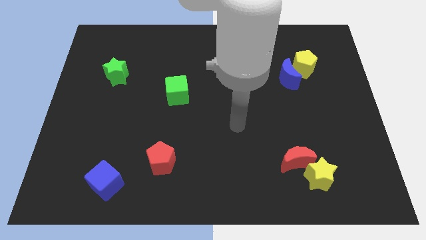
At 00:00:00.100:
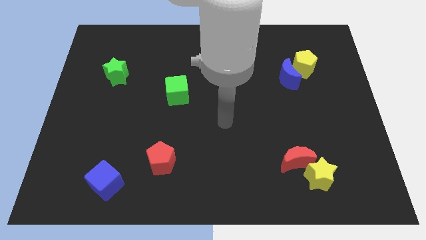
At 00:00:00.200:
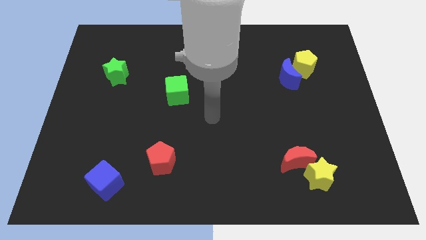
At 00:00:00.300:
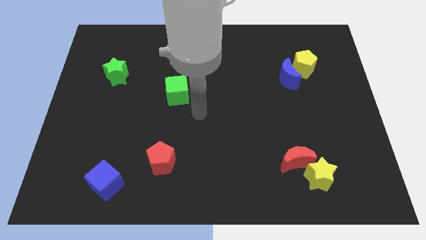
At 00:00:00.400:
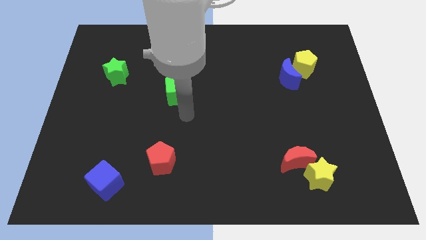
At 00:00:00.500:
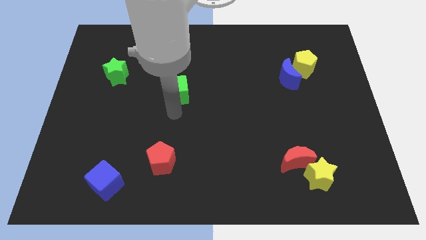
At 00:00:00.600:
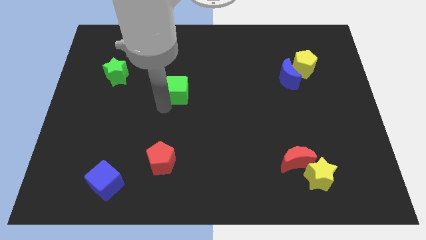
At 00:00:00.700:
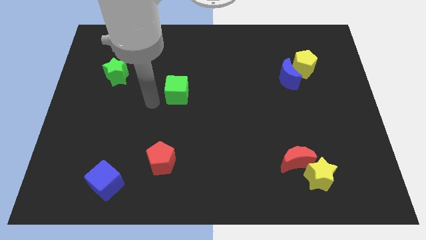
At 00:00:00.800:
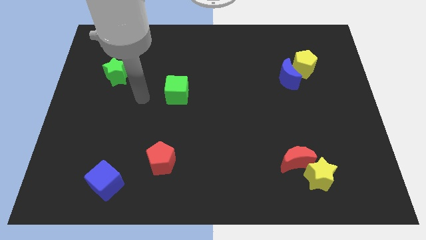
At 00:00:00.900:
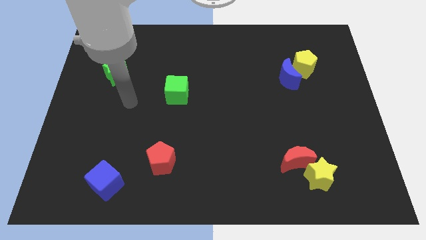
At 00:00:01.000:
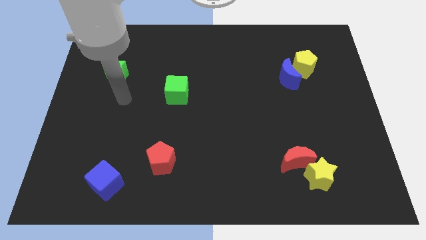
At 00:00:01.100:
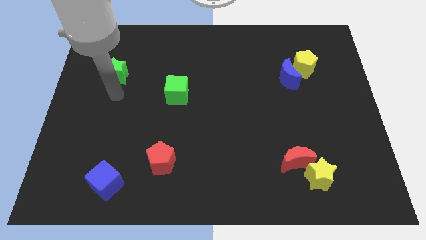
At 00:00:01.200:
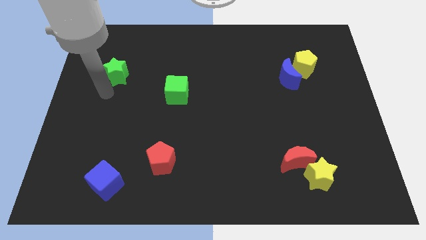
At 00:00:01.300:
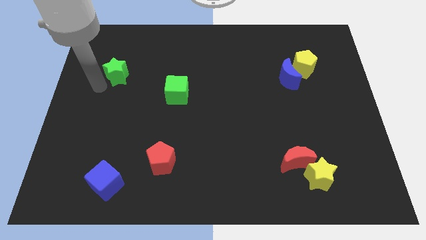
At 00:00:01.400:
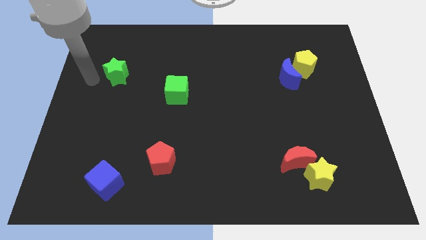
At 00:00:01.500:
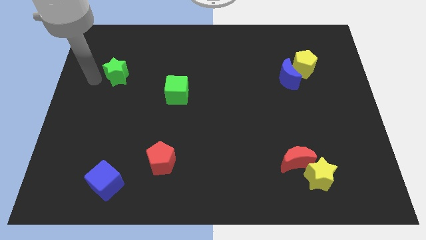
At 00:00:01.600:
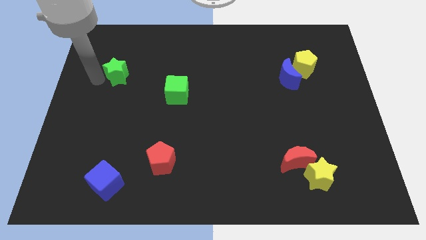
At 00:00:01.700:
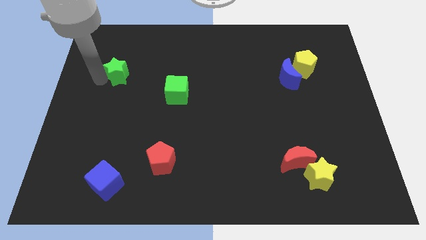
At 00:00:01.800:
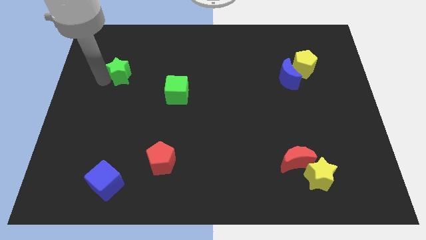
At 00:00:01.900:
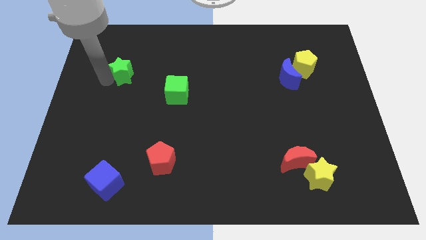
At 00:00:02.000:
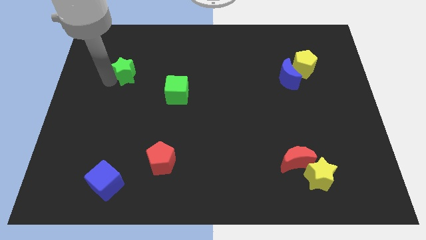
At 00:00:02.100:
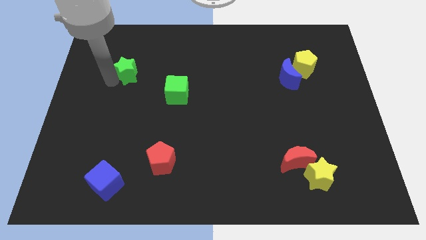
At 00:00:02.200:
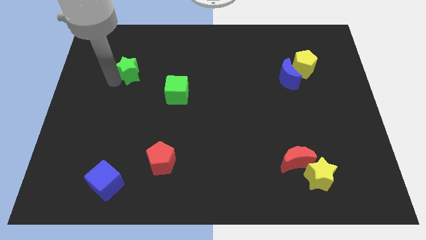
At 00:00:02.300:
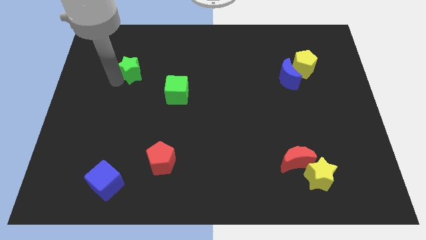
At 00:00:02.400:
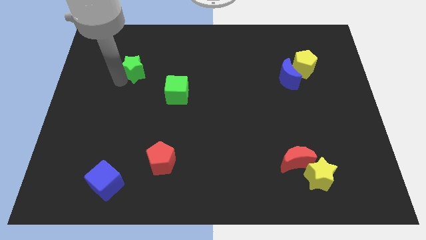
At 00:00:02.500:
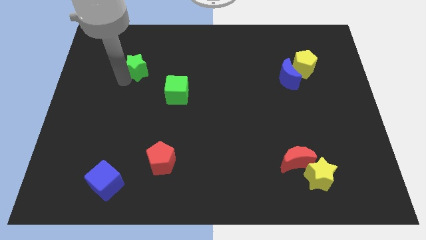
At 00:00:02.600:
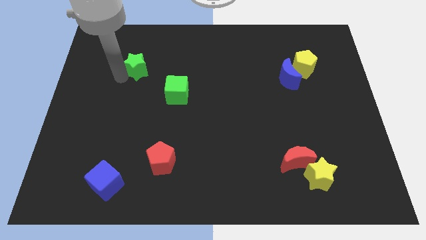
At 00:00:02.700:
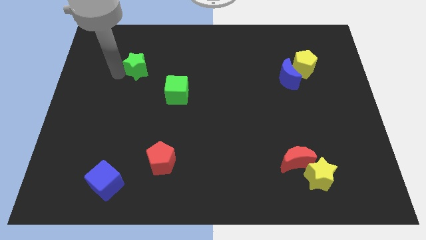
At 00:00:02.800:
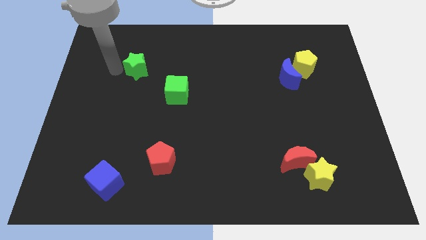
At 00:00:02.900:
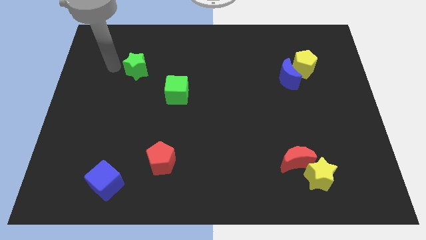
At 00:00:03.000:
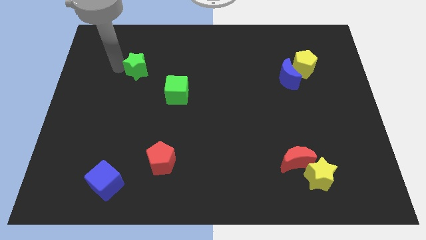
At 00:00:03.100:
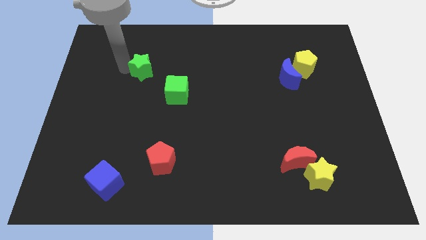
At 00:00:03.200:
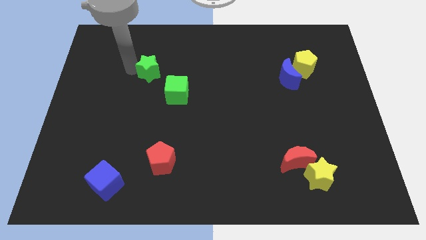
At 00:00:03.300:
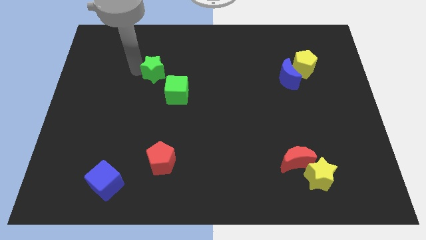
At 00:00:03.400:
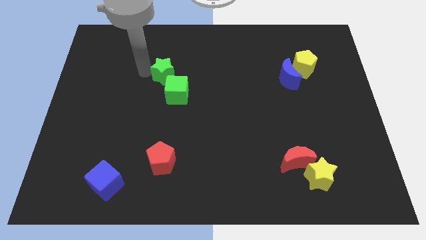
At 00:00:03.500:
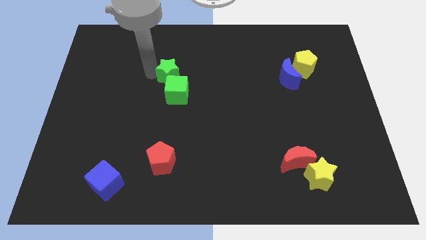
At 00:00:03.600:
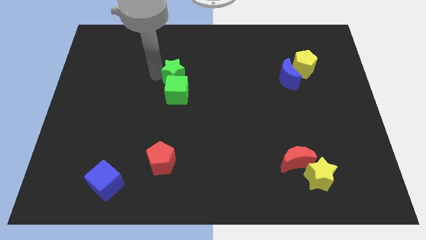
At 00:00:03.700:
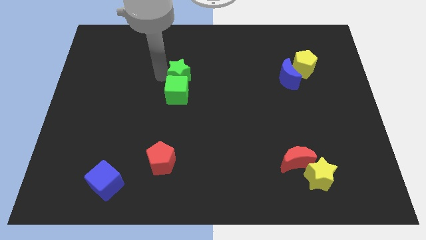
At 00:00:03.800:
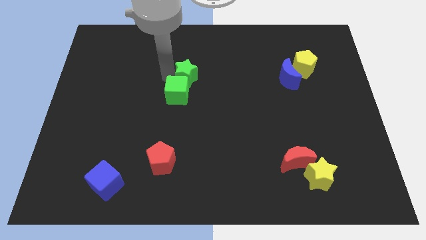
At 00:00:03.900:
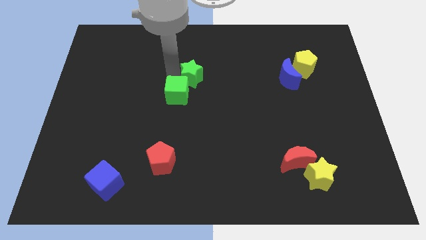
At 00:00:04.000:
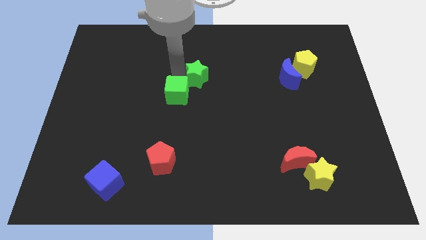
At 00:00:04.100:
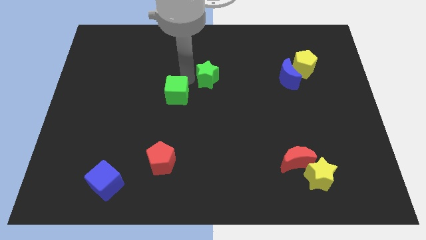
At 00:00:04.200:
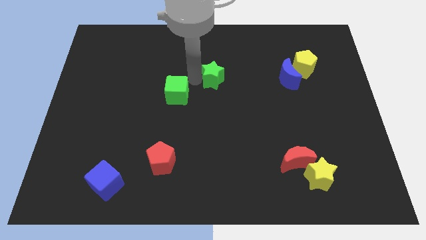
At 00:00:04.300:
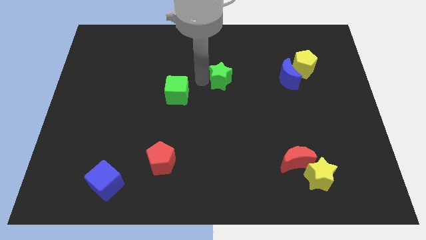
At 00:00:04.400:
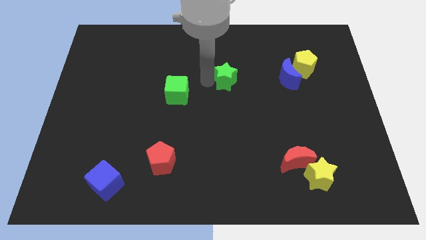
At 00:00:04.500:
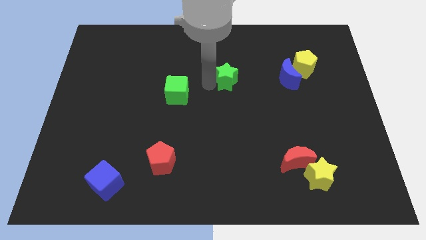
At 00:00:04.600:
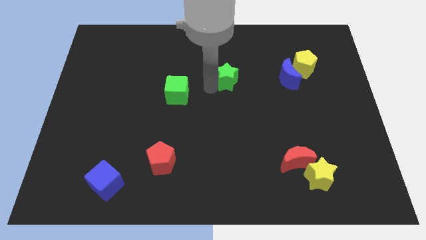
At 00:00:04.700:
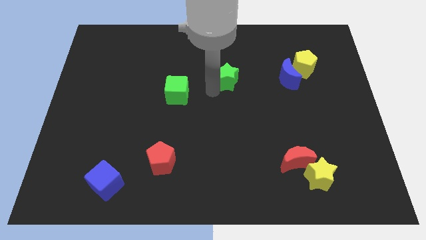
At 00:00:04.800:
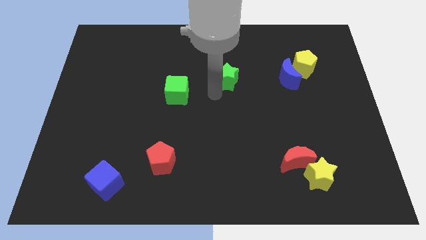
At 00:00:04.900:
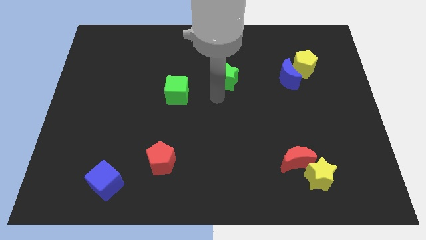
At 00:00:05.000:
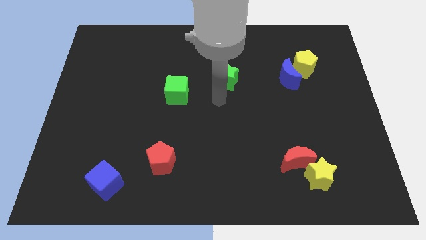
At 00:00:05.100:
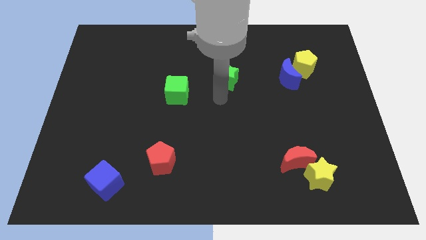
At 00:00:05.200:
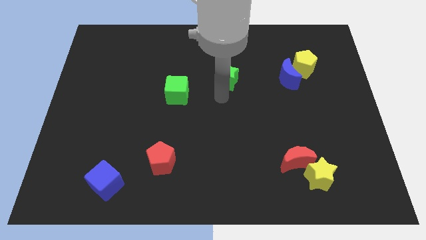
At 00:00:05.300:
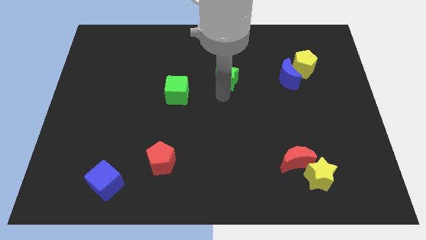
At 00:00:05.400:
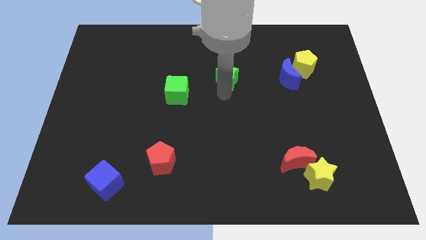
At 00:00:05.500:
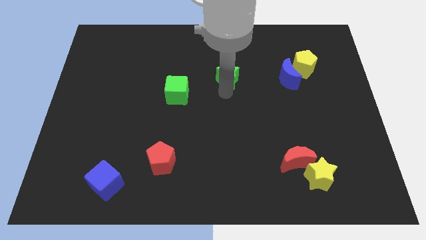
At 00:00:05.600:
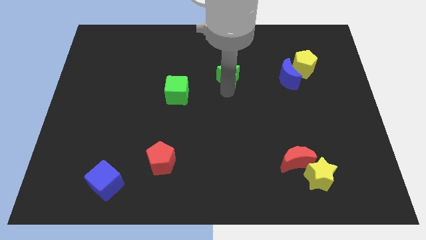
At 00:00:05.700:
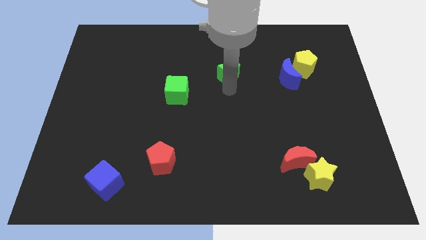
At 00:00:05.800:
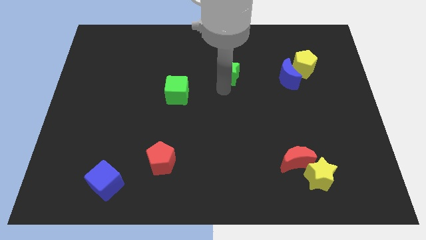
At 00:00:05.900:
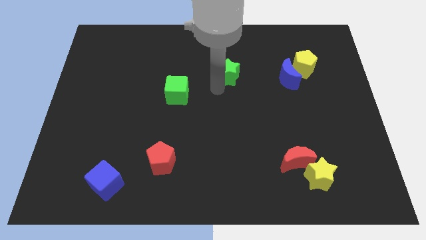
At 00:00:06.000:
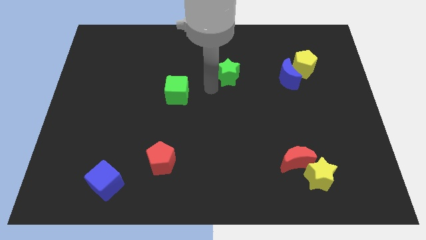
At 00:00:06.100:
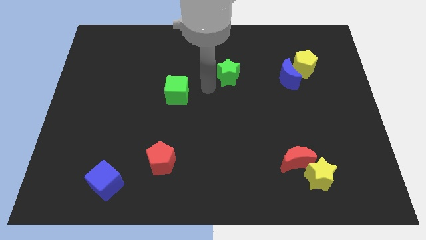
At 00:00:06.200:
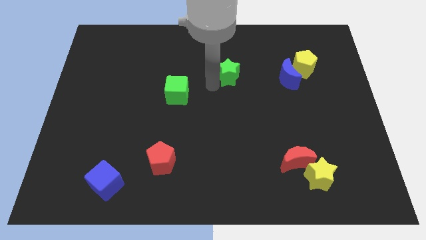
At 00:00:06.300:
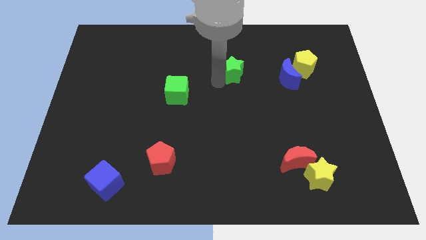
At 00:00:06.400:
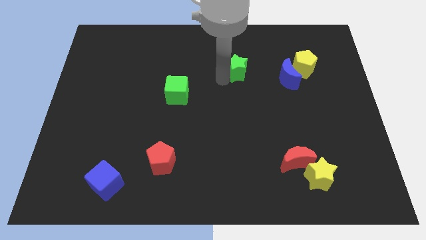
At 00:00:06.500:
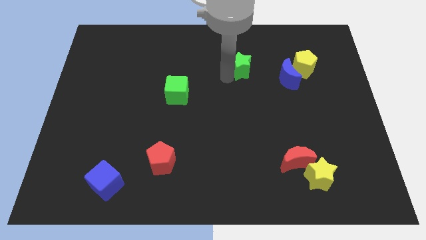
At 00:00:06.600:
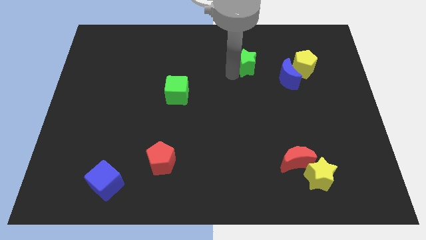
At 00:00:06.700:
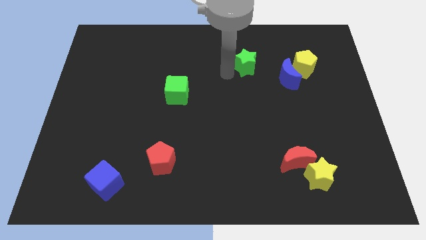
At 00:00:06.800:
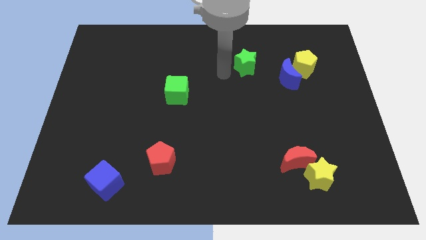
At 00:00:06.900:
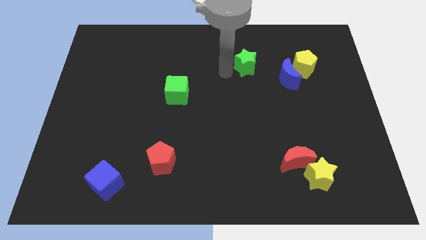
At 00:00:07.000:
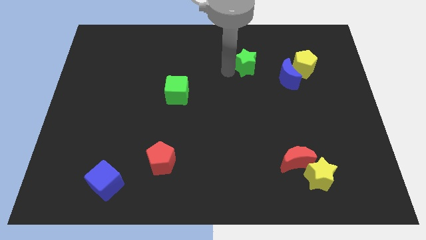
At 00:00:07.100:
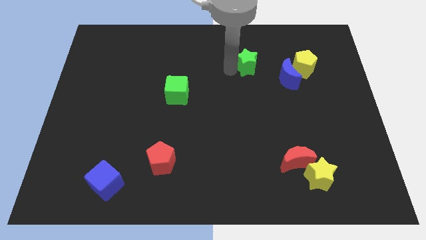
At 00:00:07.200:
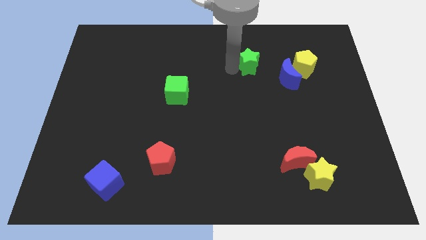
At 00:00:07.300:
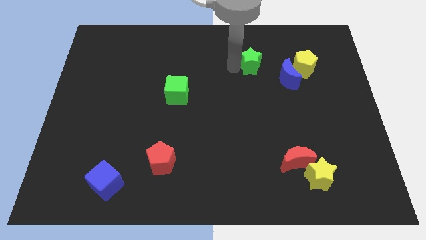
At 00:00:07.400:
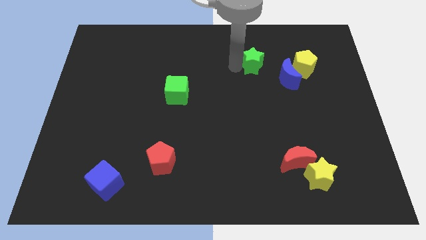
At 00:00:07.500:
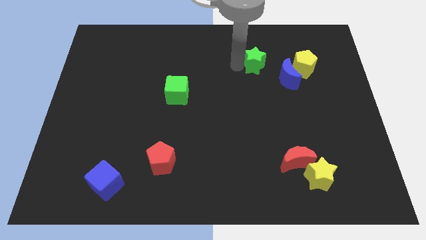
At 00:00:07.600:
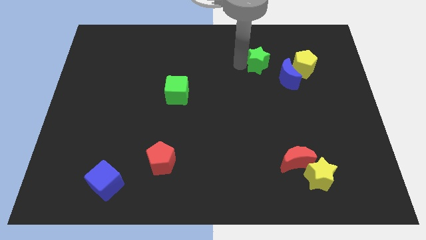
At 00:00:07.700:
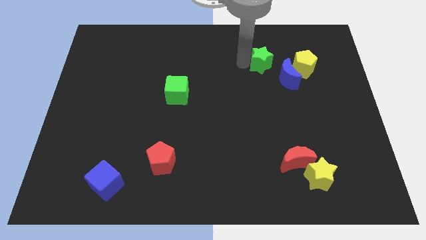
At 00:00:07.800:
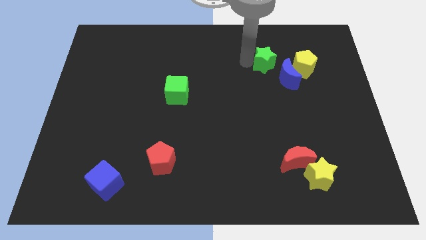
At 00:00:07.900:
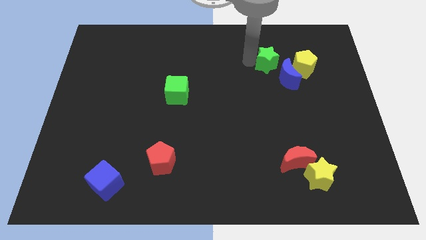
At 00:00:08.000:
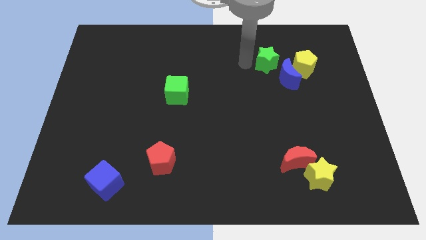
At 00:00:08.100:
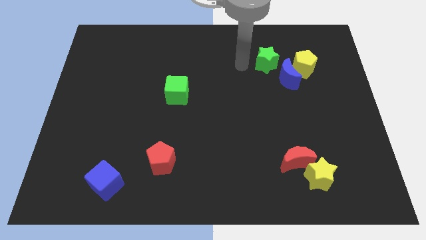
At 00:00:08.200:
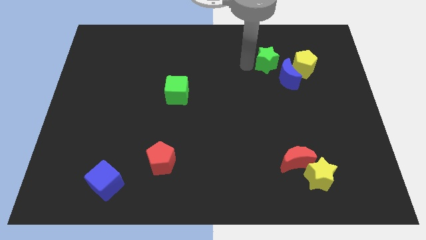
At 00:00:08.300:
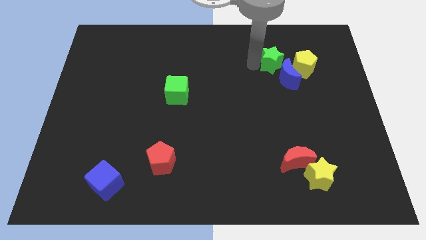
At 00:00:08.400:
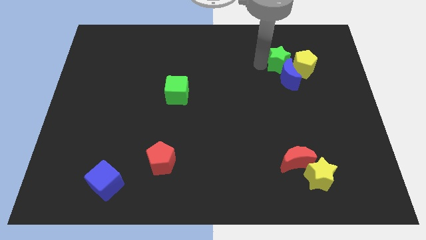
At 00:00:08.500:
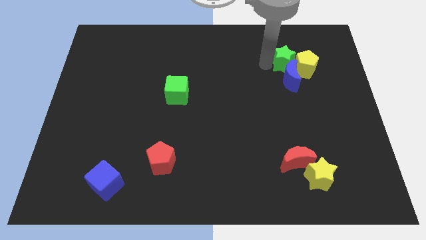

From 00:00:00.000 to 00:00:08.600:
slide the green star next to the yellow pentagon
